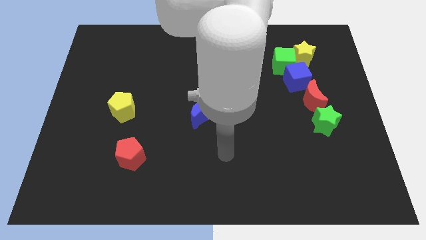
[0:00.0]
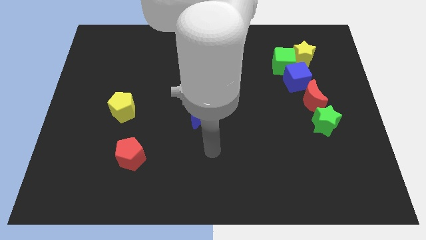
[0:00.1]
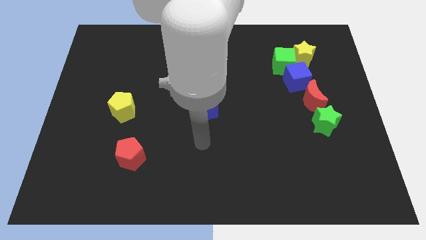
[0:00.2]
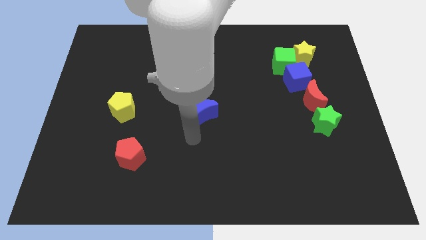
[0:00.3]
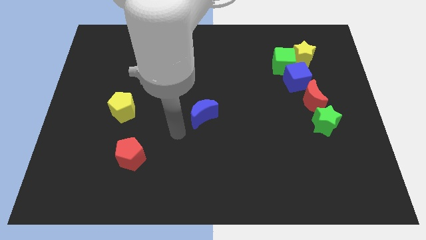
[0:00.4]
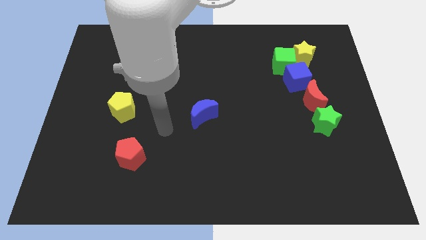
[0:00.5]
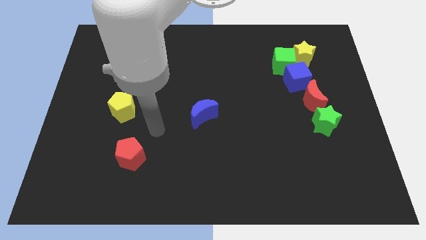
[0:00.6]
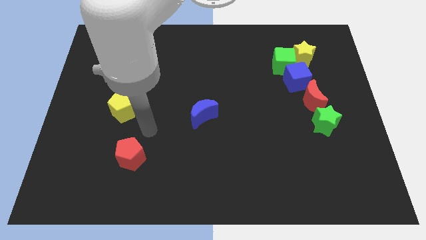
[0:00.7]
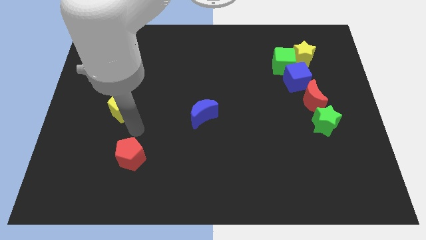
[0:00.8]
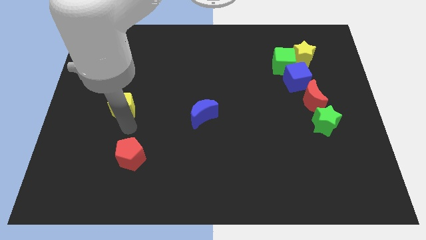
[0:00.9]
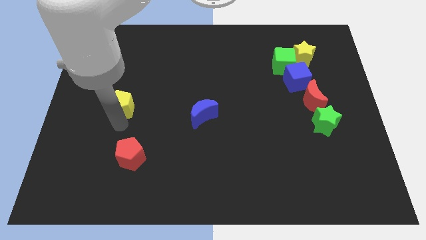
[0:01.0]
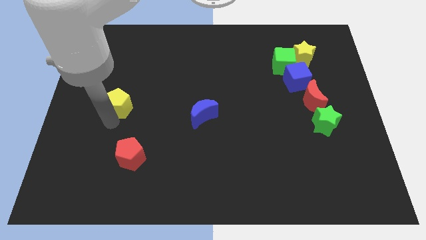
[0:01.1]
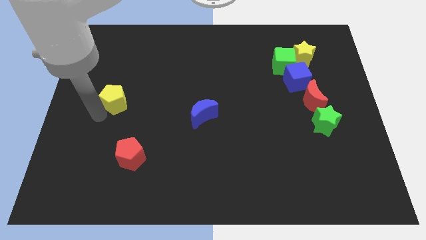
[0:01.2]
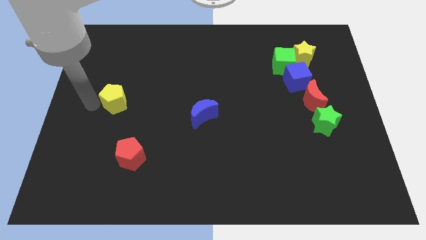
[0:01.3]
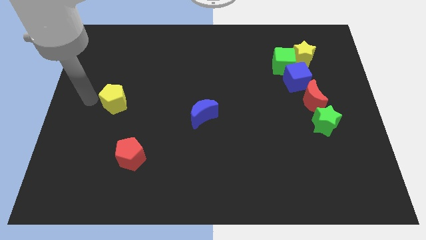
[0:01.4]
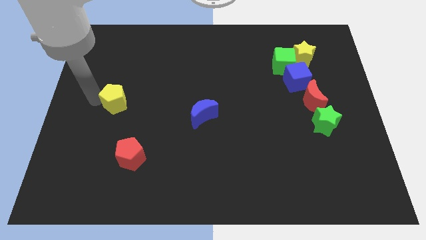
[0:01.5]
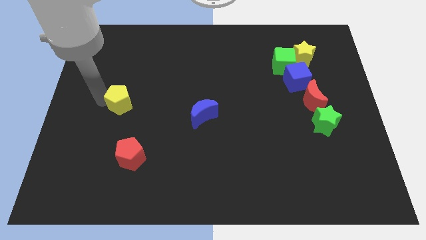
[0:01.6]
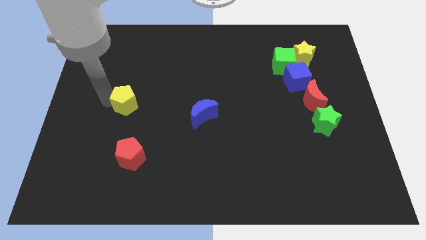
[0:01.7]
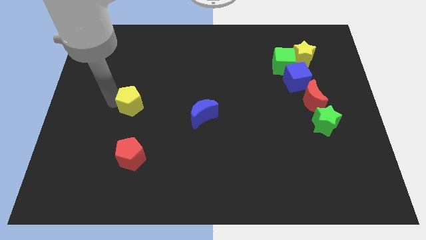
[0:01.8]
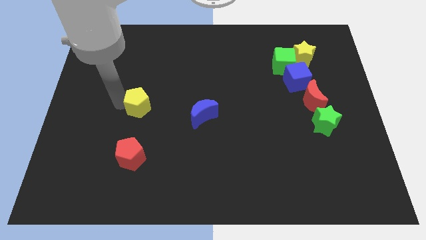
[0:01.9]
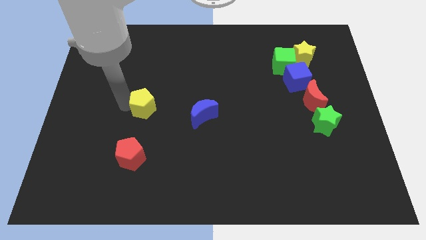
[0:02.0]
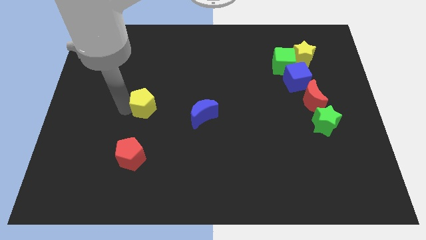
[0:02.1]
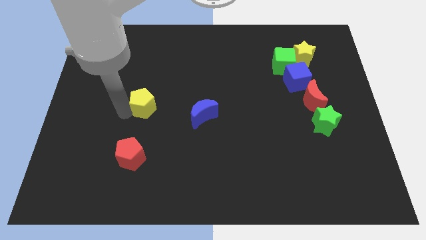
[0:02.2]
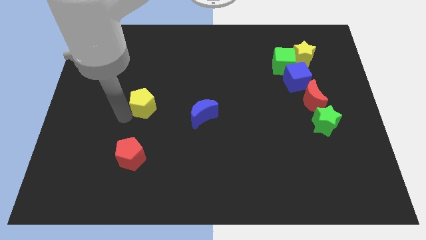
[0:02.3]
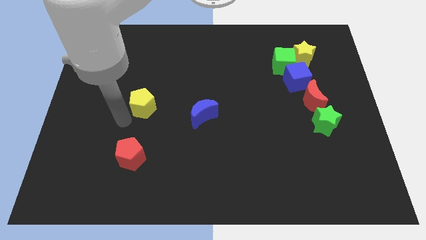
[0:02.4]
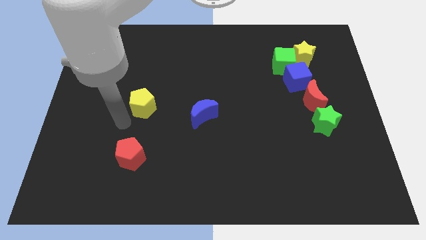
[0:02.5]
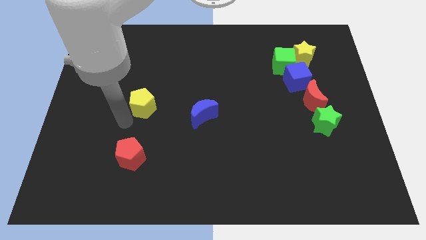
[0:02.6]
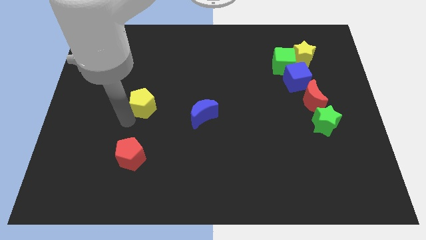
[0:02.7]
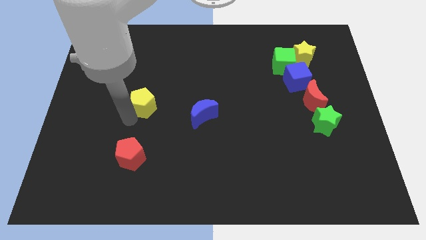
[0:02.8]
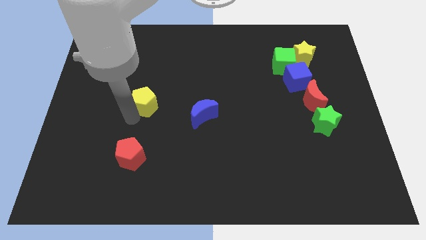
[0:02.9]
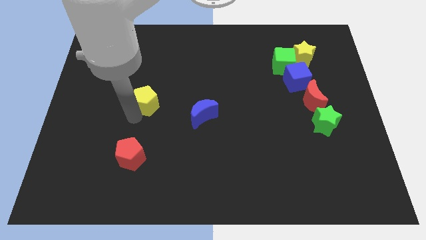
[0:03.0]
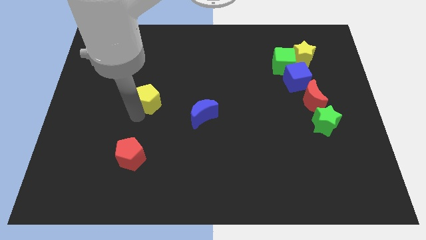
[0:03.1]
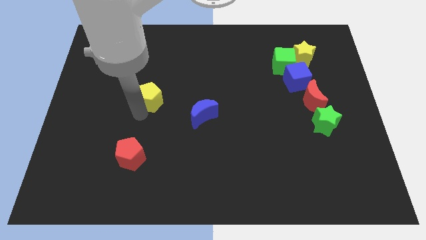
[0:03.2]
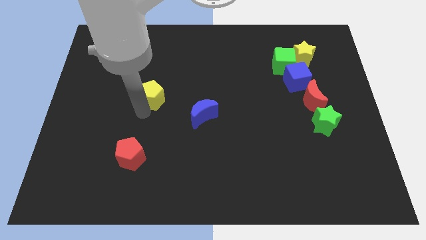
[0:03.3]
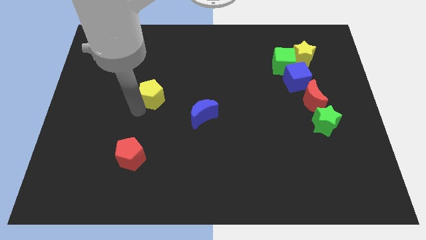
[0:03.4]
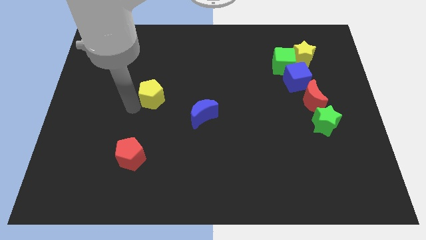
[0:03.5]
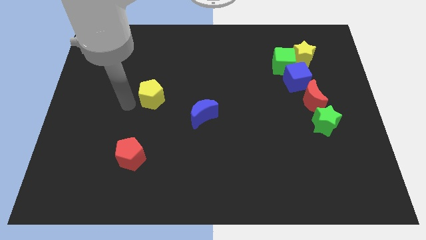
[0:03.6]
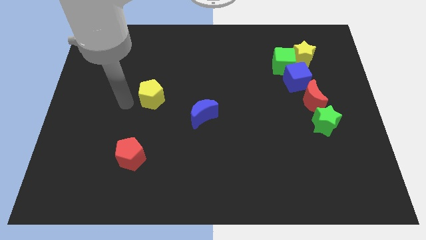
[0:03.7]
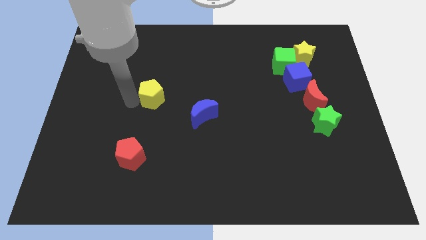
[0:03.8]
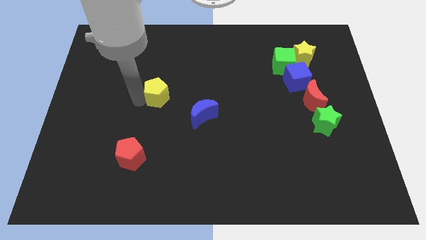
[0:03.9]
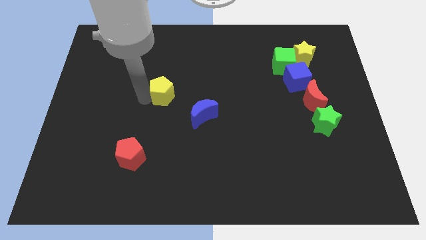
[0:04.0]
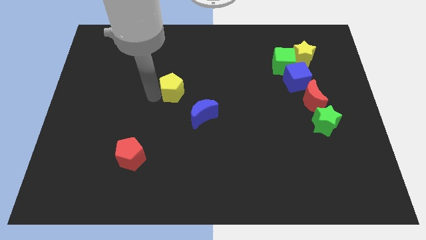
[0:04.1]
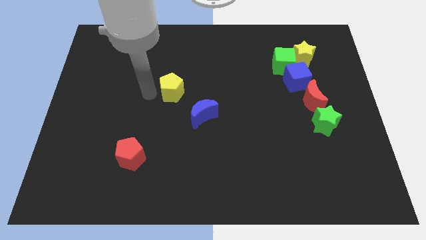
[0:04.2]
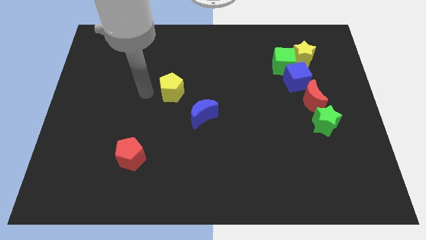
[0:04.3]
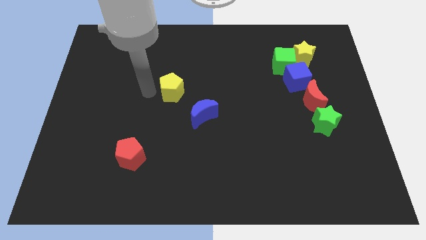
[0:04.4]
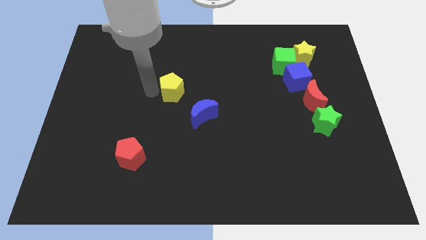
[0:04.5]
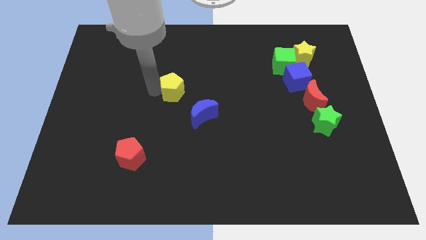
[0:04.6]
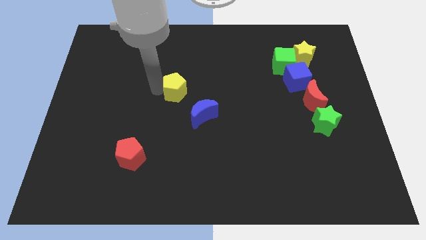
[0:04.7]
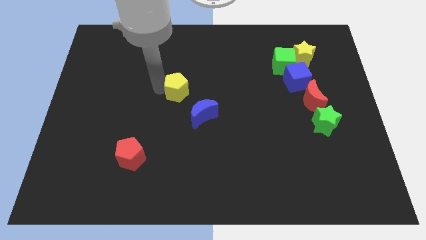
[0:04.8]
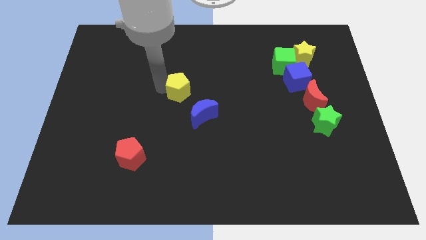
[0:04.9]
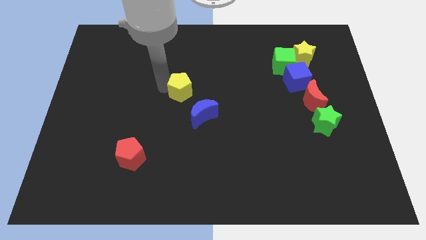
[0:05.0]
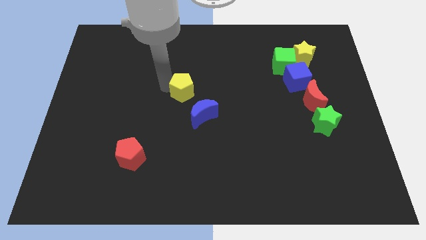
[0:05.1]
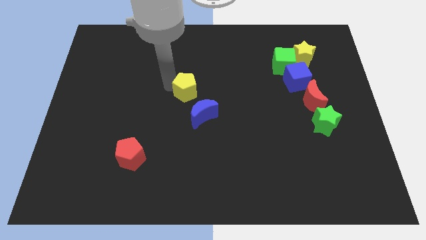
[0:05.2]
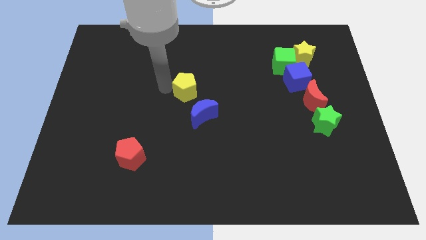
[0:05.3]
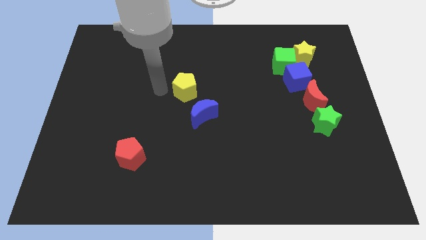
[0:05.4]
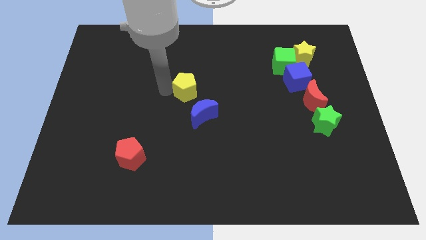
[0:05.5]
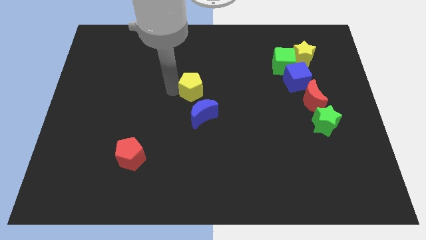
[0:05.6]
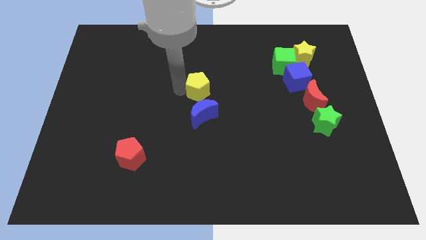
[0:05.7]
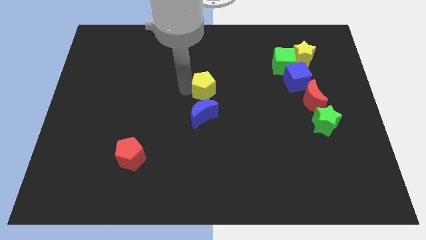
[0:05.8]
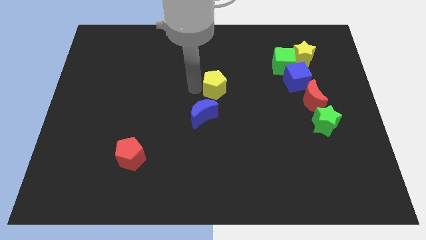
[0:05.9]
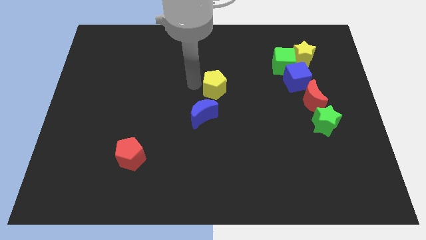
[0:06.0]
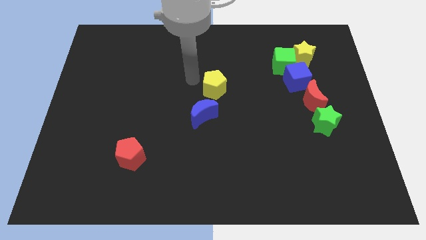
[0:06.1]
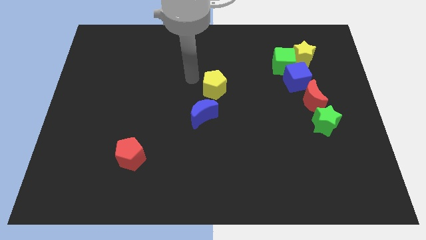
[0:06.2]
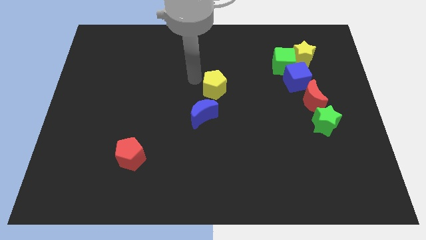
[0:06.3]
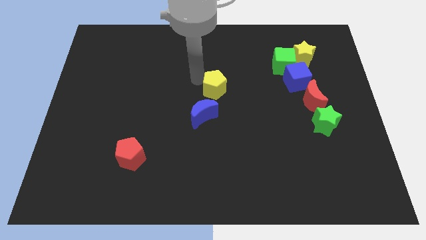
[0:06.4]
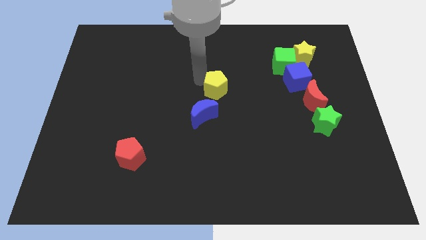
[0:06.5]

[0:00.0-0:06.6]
push the yellow pentagon right

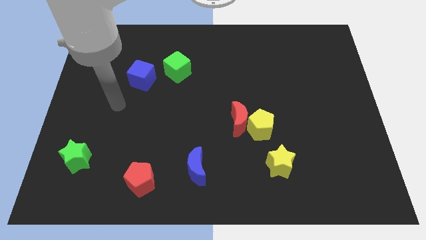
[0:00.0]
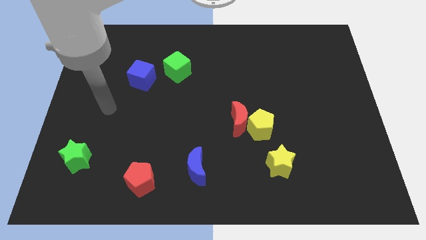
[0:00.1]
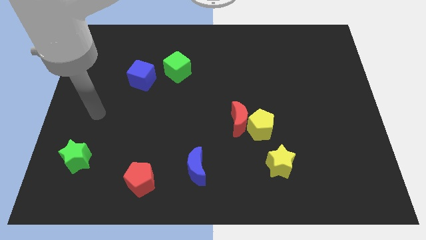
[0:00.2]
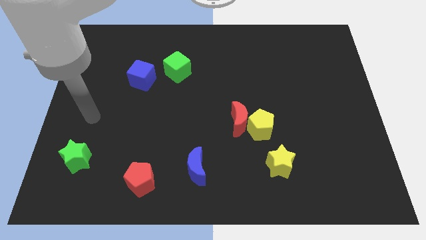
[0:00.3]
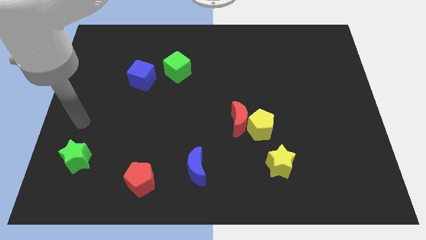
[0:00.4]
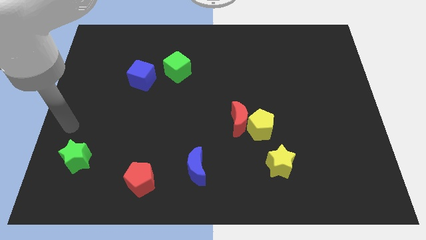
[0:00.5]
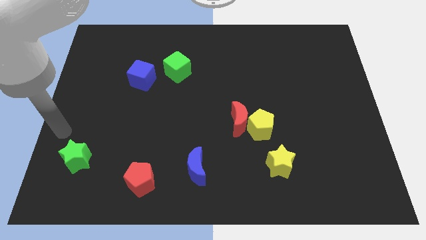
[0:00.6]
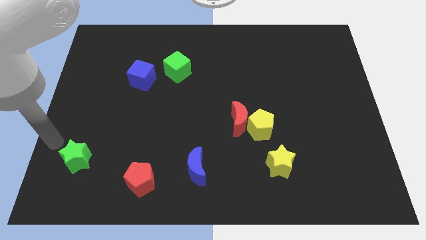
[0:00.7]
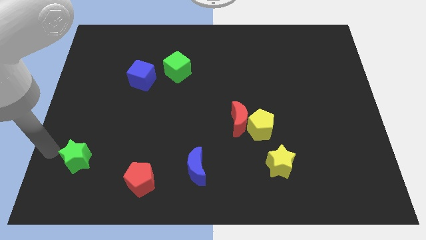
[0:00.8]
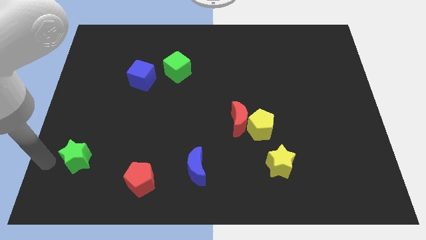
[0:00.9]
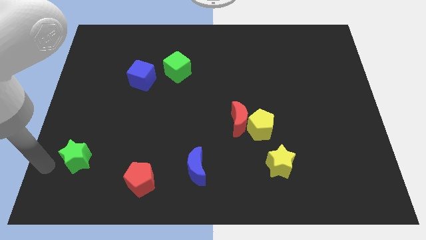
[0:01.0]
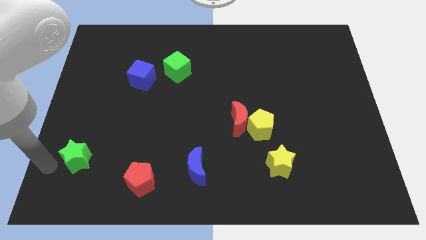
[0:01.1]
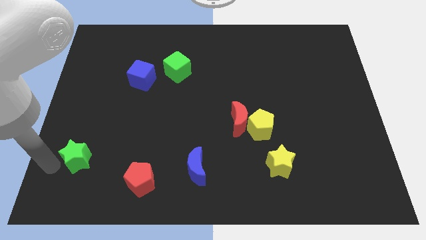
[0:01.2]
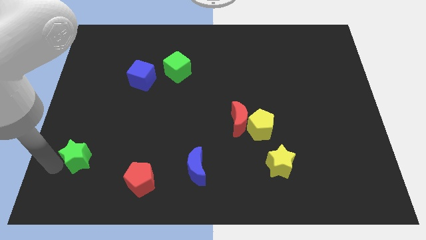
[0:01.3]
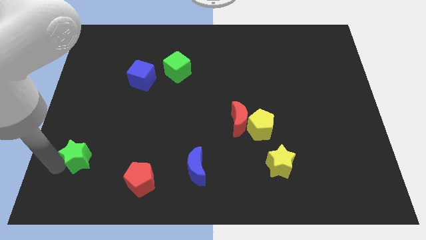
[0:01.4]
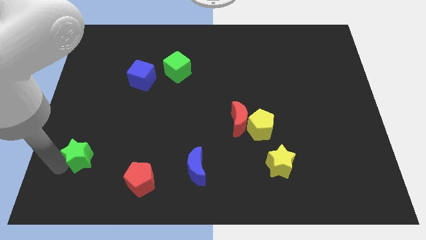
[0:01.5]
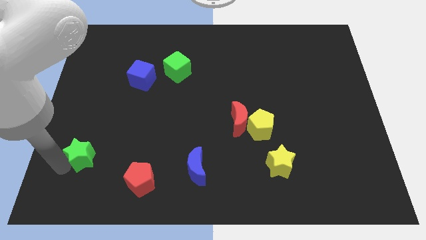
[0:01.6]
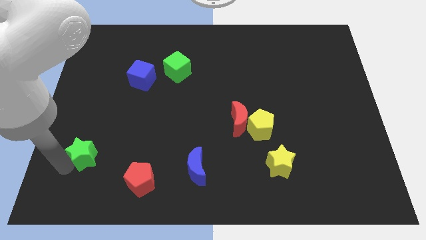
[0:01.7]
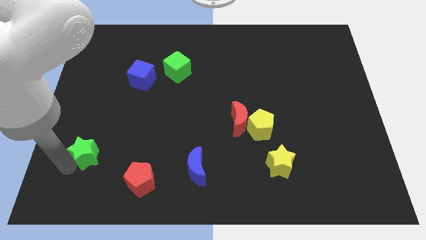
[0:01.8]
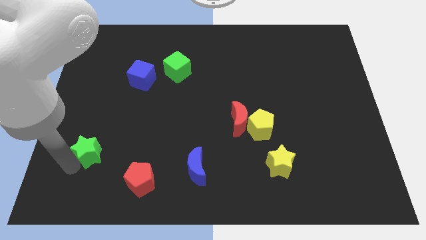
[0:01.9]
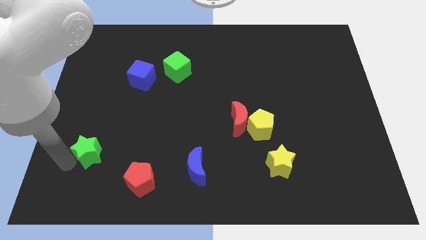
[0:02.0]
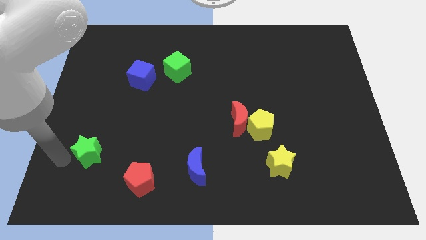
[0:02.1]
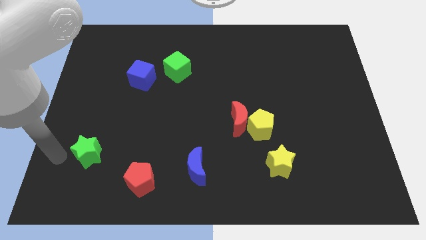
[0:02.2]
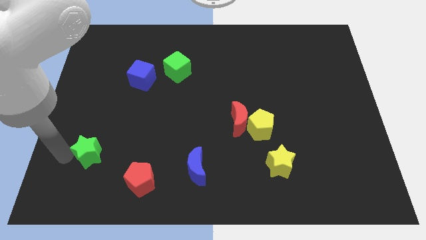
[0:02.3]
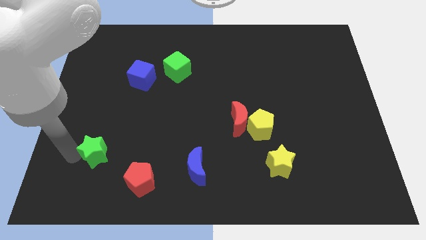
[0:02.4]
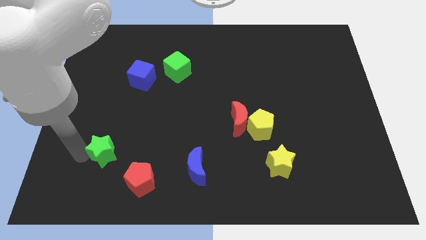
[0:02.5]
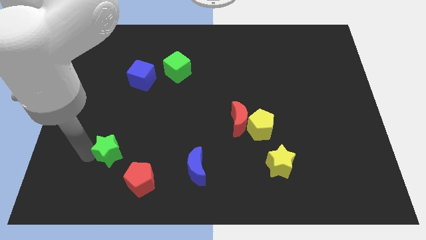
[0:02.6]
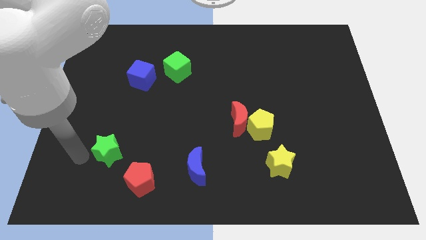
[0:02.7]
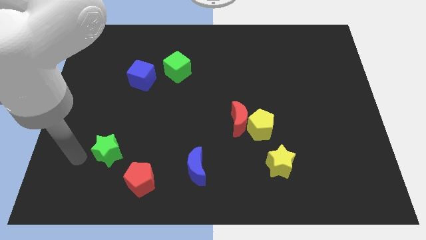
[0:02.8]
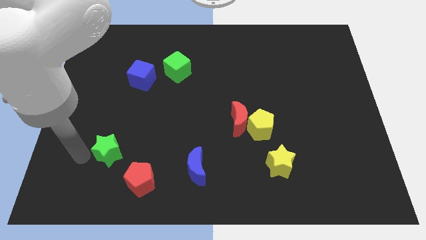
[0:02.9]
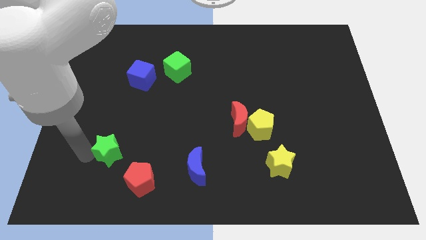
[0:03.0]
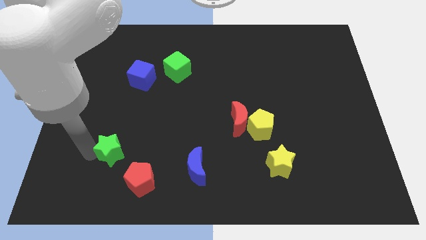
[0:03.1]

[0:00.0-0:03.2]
push the green star a bit to the right
